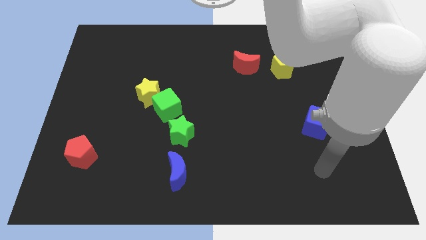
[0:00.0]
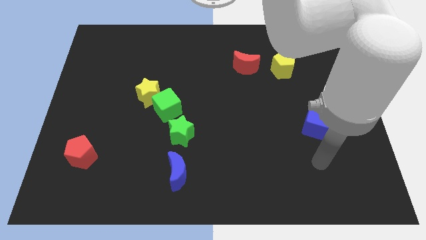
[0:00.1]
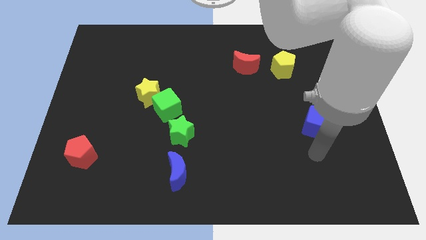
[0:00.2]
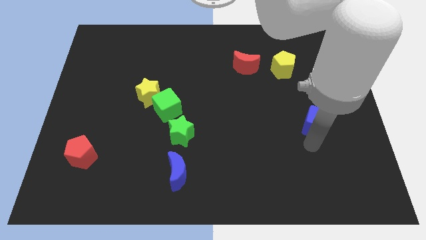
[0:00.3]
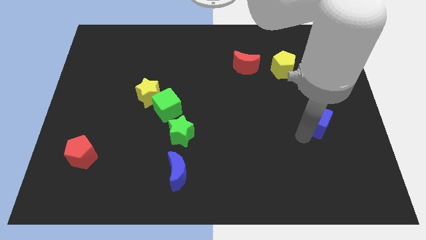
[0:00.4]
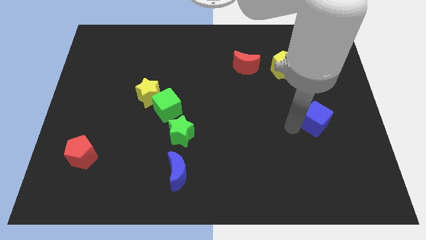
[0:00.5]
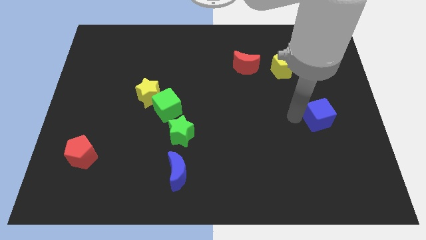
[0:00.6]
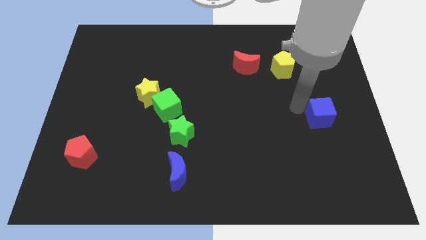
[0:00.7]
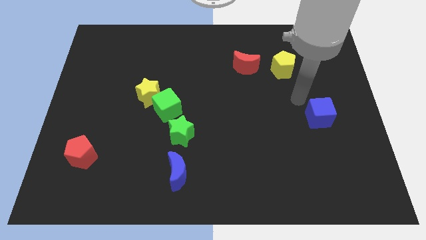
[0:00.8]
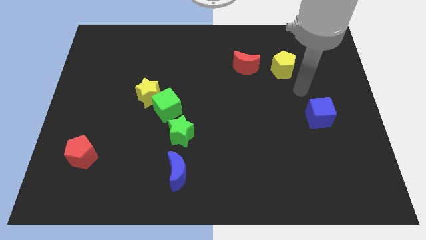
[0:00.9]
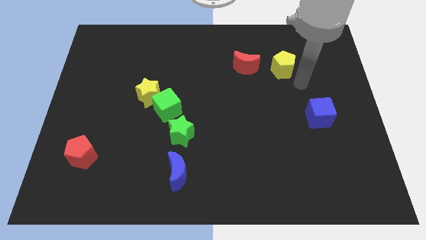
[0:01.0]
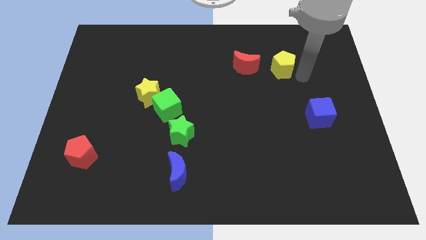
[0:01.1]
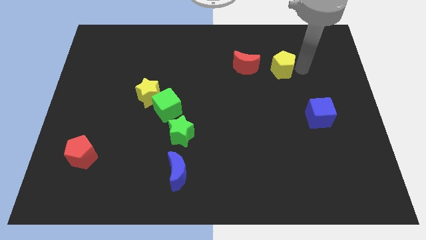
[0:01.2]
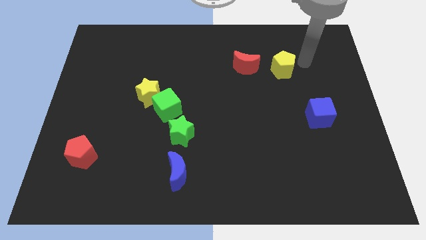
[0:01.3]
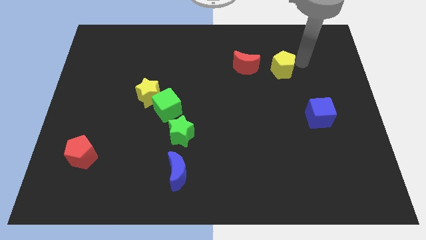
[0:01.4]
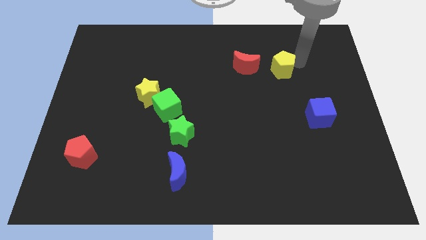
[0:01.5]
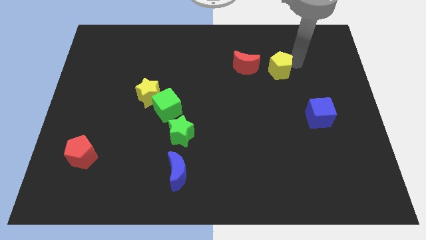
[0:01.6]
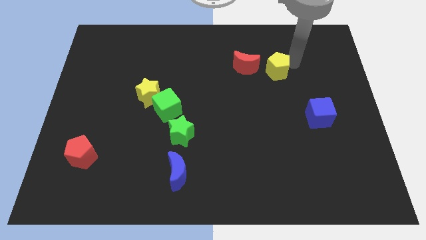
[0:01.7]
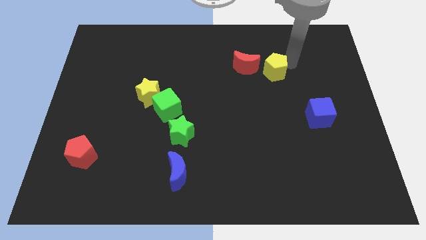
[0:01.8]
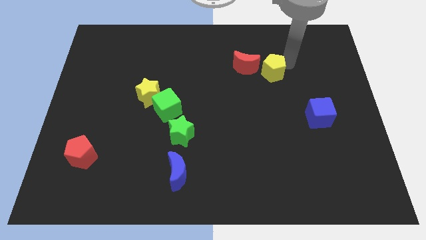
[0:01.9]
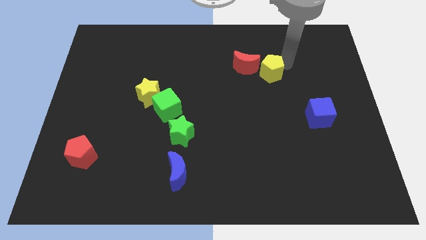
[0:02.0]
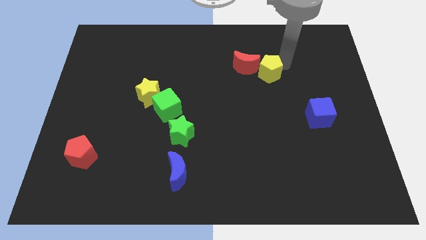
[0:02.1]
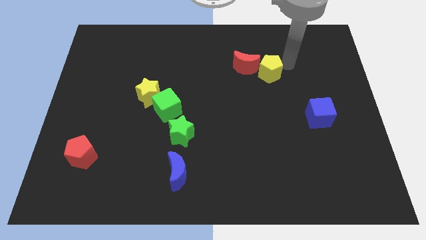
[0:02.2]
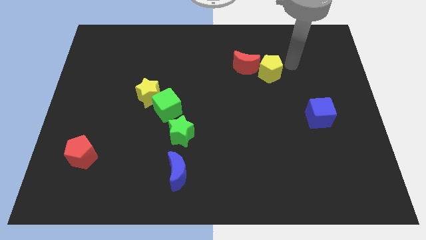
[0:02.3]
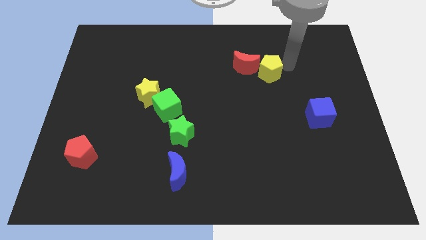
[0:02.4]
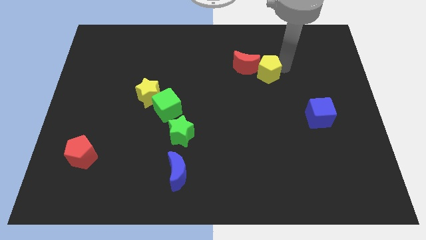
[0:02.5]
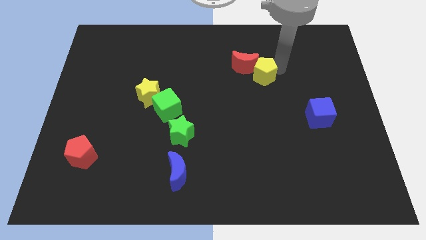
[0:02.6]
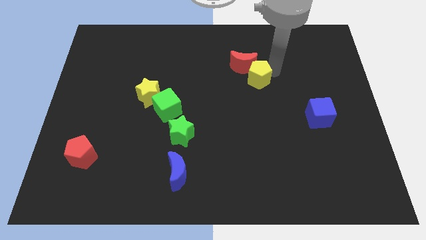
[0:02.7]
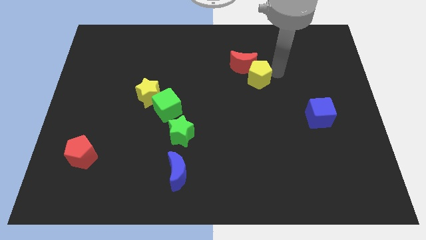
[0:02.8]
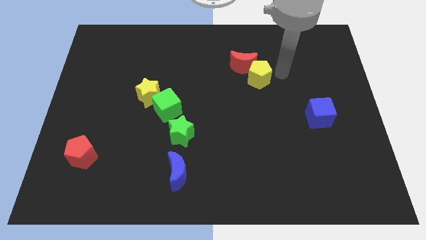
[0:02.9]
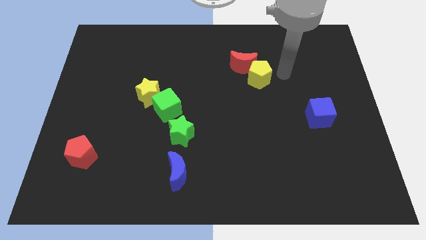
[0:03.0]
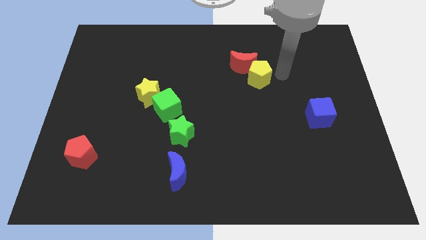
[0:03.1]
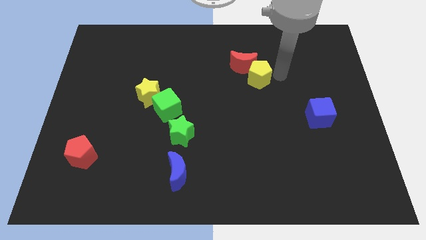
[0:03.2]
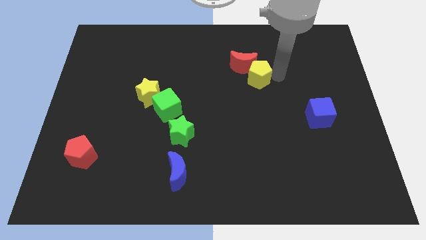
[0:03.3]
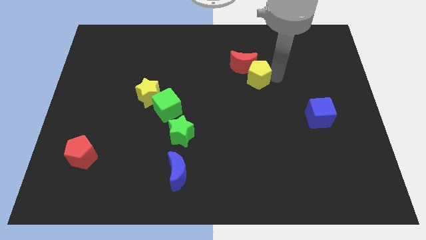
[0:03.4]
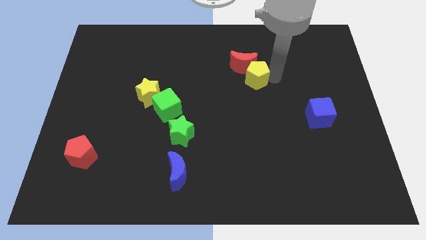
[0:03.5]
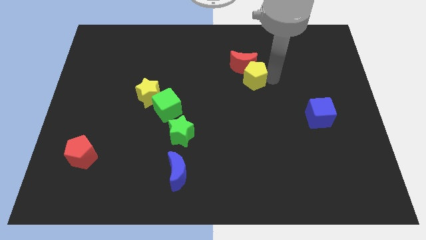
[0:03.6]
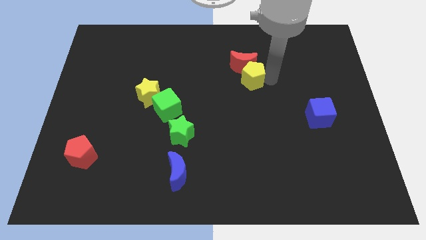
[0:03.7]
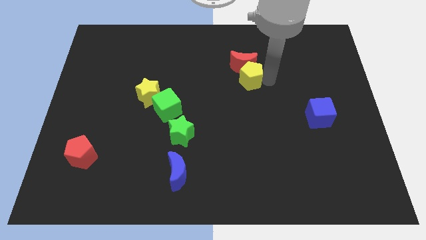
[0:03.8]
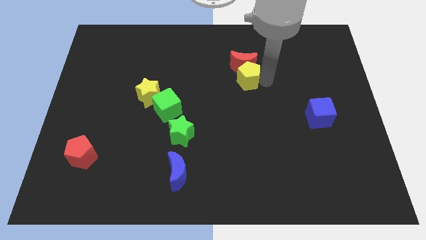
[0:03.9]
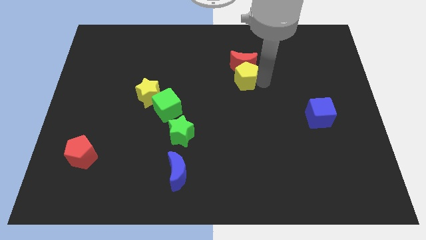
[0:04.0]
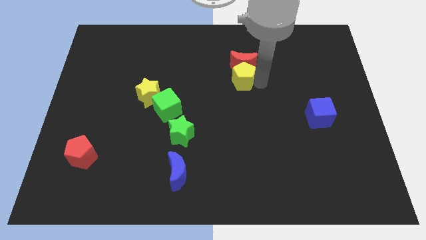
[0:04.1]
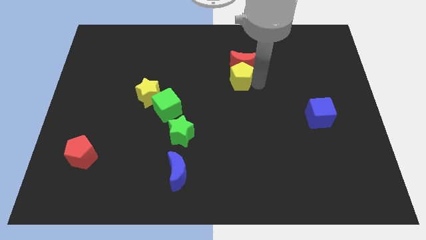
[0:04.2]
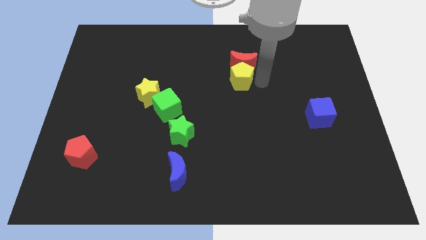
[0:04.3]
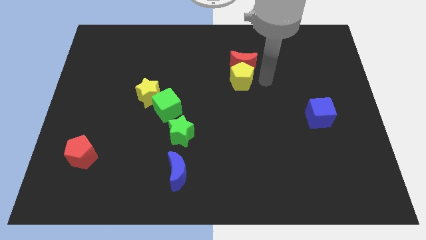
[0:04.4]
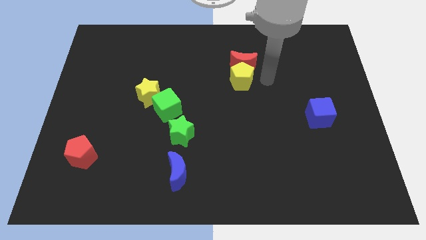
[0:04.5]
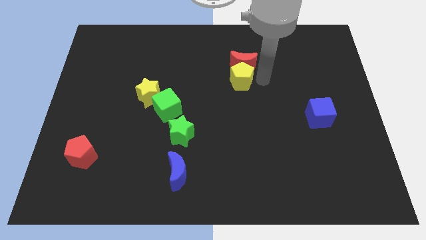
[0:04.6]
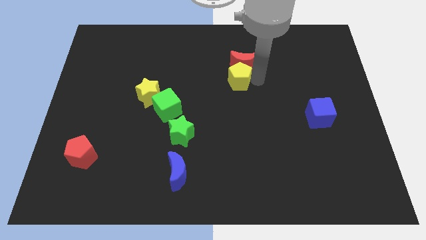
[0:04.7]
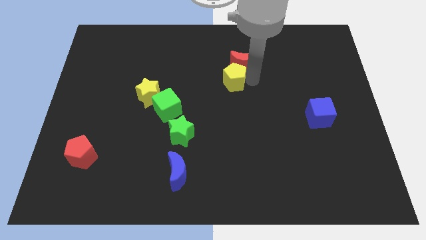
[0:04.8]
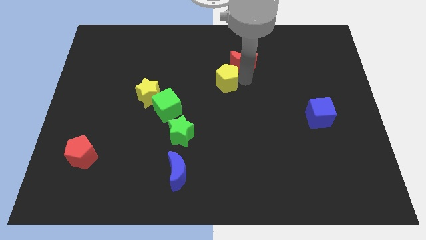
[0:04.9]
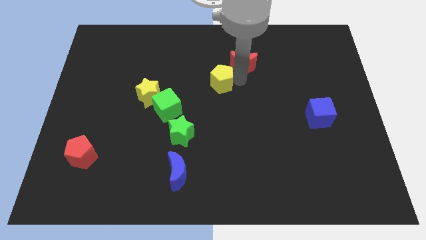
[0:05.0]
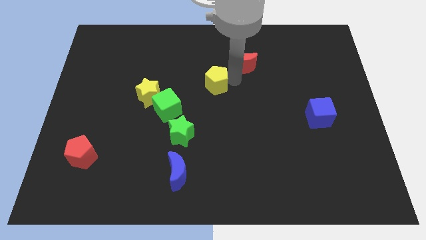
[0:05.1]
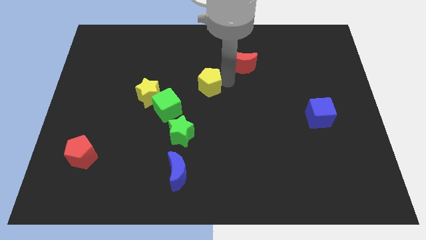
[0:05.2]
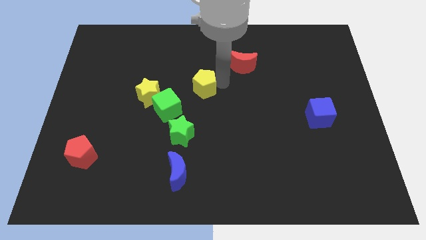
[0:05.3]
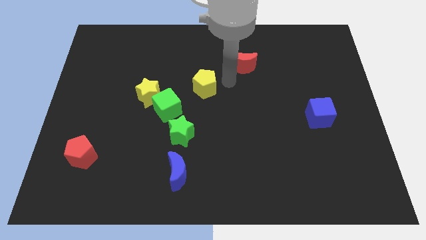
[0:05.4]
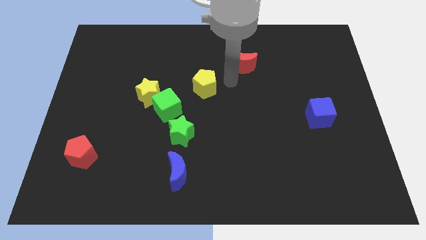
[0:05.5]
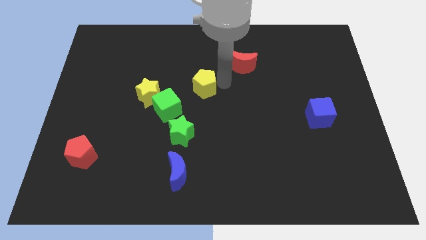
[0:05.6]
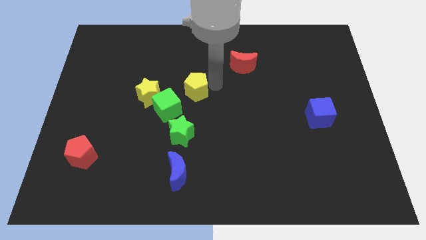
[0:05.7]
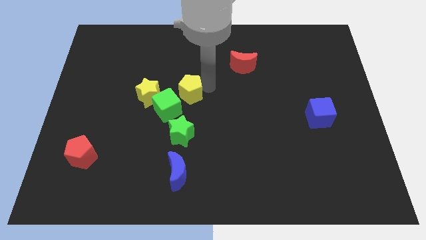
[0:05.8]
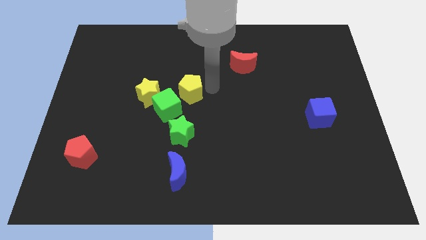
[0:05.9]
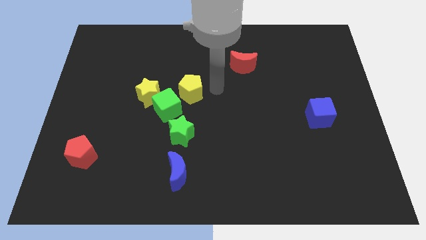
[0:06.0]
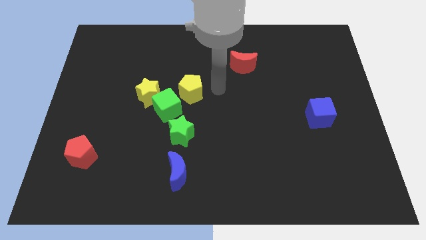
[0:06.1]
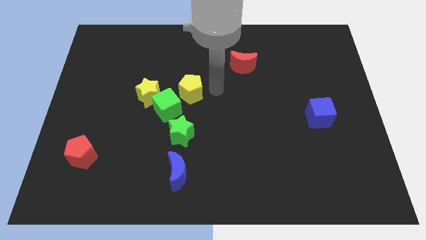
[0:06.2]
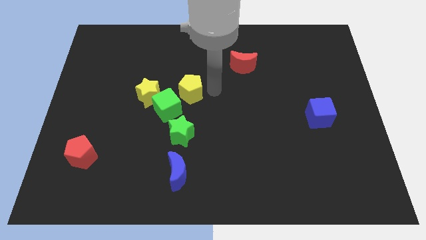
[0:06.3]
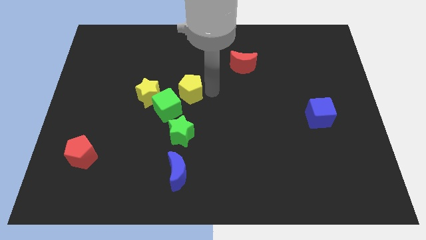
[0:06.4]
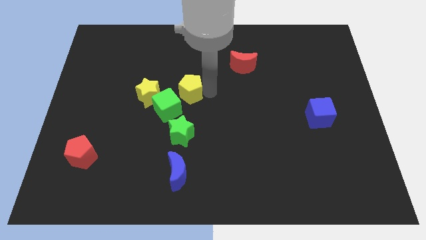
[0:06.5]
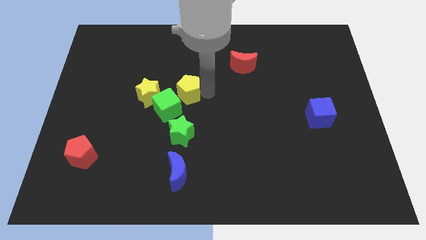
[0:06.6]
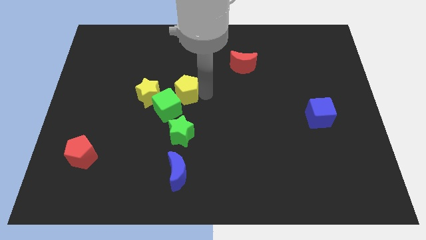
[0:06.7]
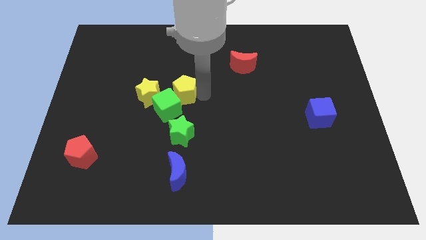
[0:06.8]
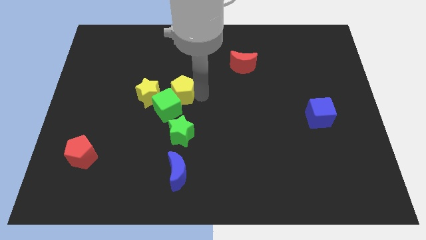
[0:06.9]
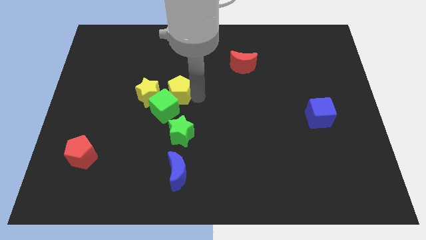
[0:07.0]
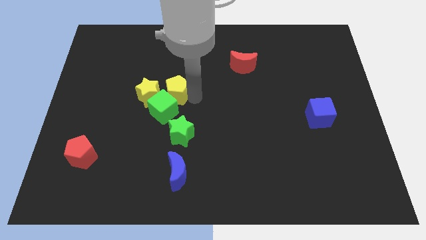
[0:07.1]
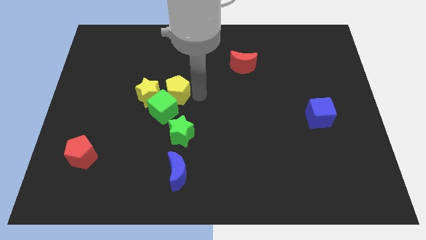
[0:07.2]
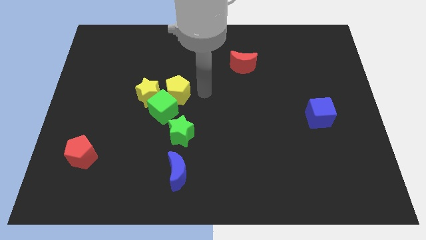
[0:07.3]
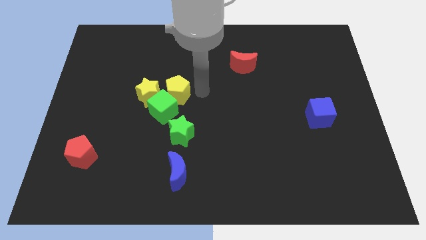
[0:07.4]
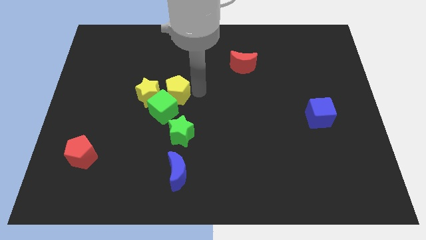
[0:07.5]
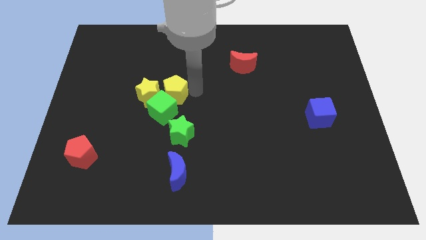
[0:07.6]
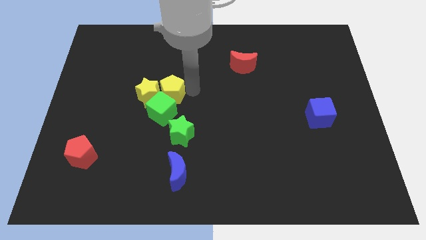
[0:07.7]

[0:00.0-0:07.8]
put the yellow pentagon to the yellow star

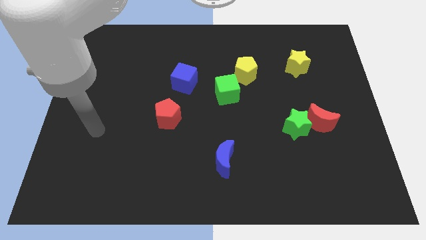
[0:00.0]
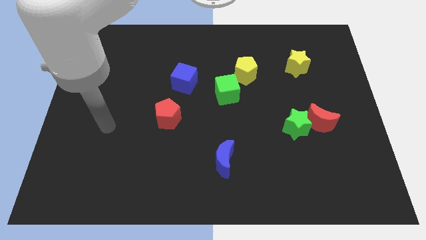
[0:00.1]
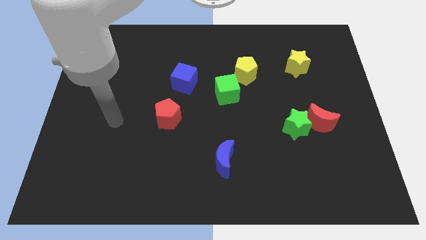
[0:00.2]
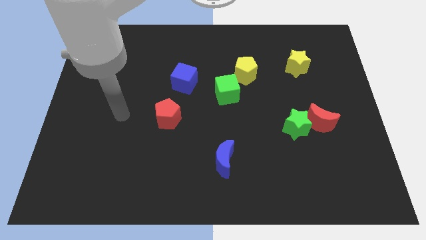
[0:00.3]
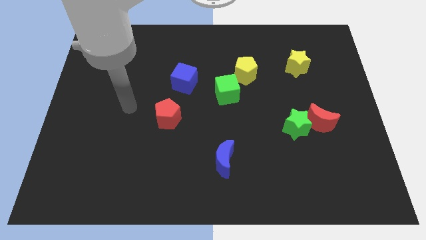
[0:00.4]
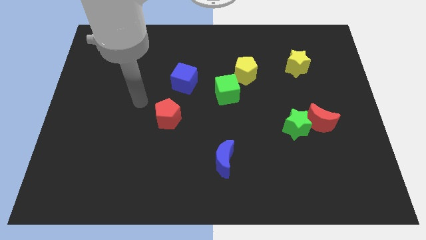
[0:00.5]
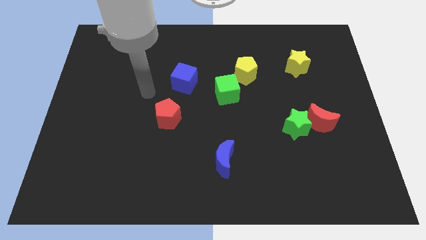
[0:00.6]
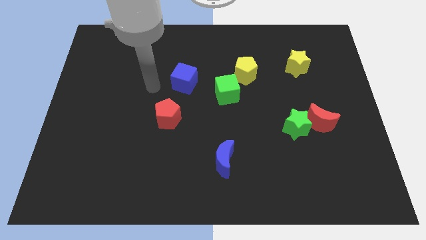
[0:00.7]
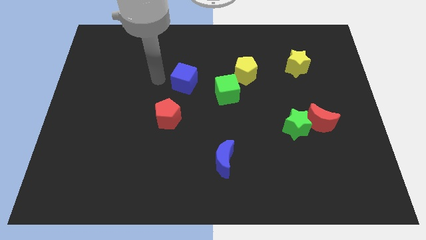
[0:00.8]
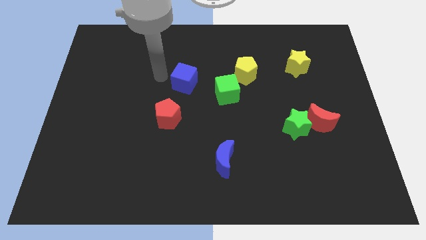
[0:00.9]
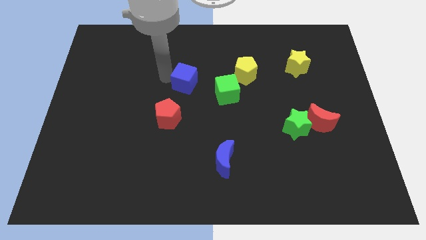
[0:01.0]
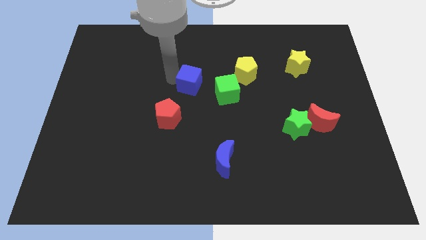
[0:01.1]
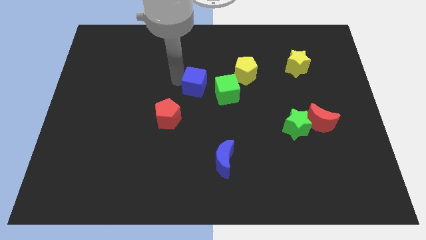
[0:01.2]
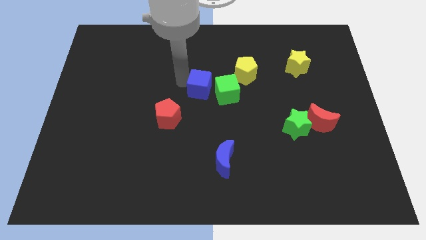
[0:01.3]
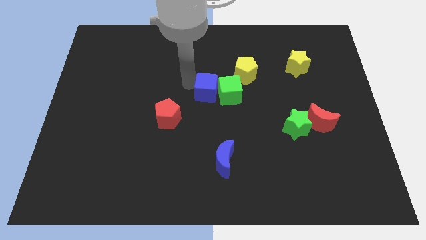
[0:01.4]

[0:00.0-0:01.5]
move the blue cube next to the green cube
